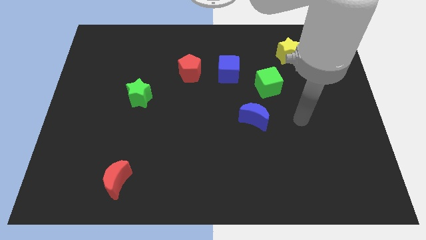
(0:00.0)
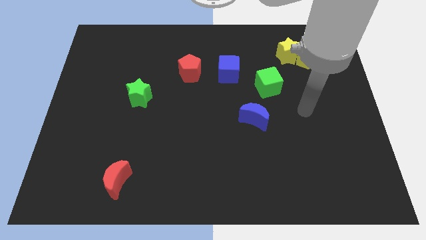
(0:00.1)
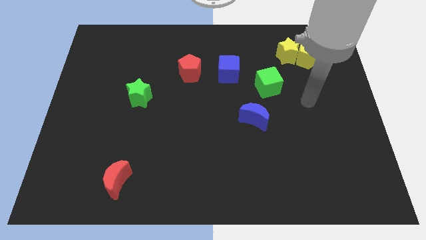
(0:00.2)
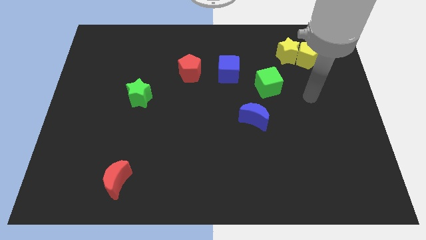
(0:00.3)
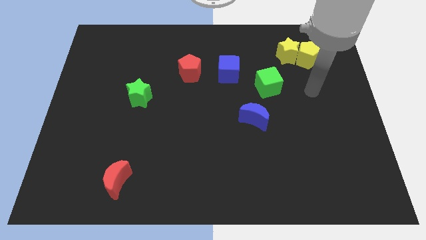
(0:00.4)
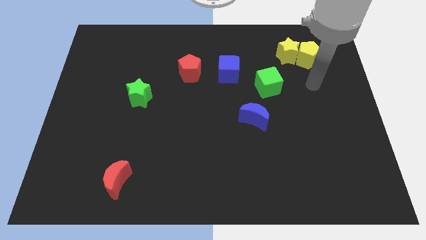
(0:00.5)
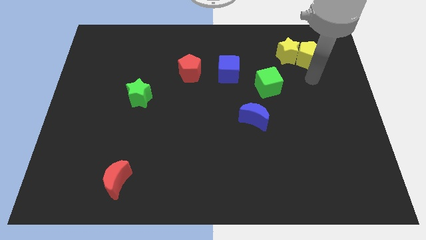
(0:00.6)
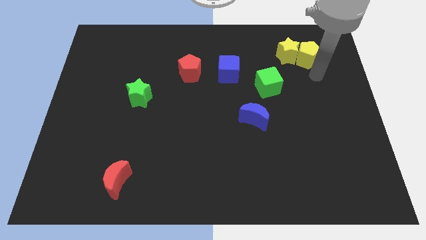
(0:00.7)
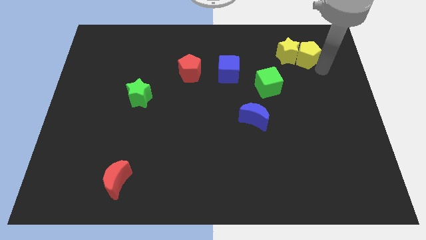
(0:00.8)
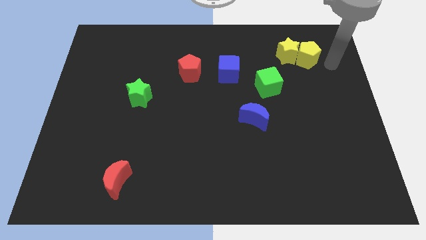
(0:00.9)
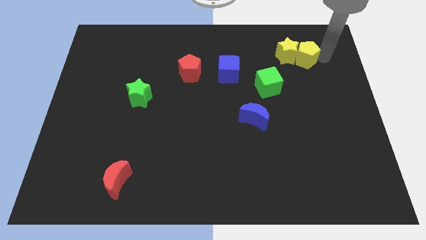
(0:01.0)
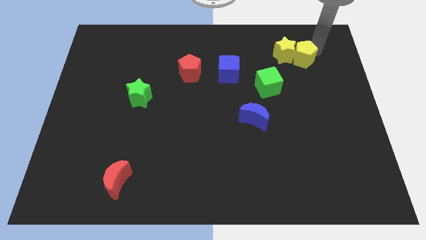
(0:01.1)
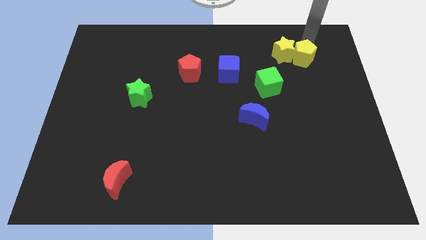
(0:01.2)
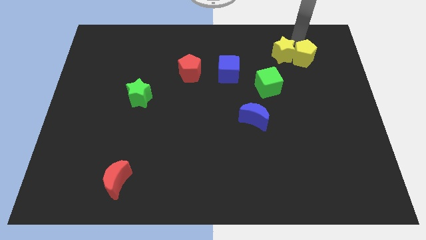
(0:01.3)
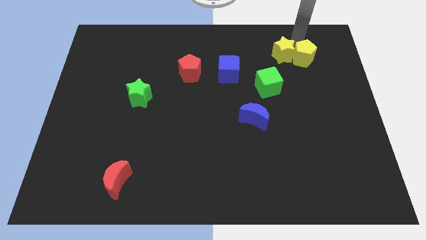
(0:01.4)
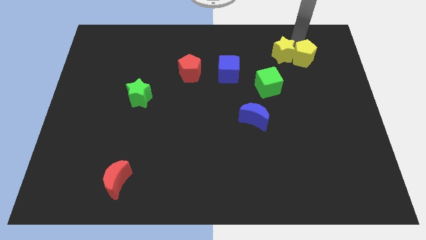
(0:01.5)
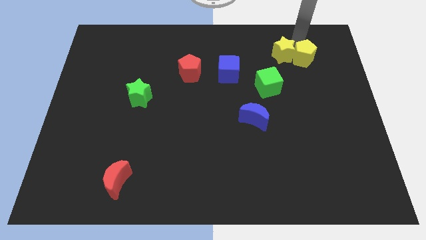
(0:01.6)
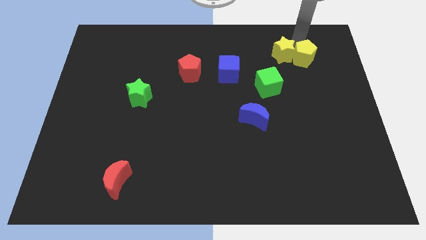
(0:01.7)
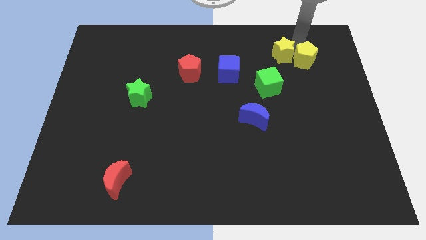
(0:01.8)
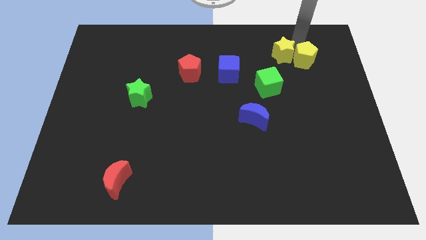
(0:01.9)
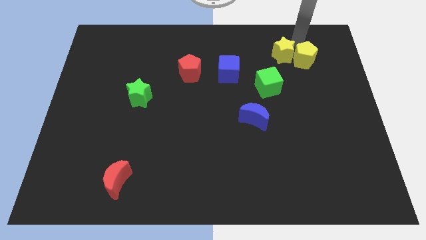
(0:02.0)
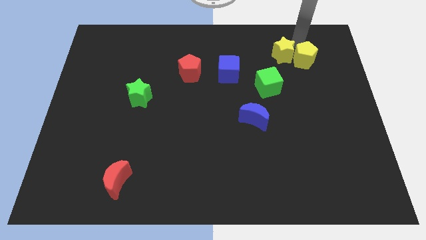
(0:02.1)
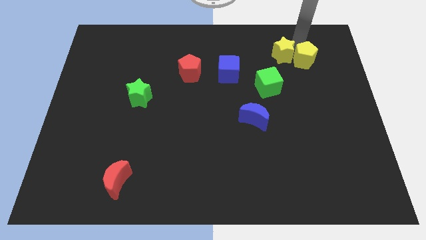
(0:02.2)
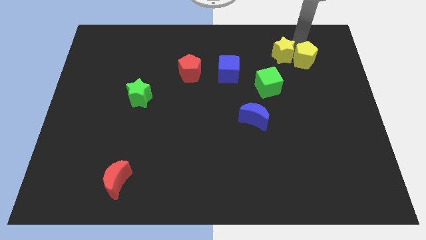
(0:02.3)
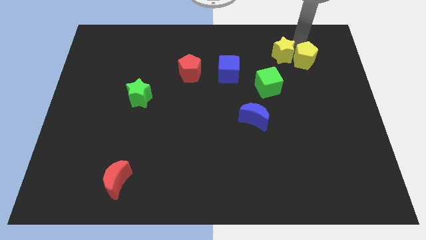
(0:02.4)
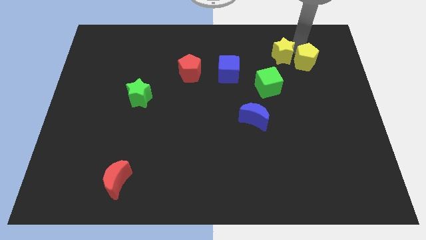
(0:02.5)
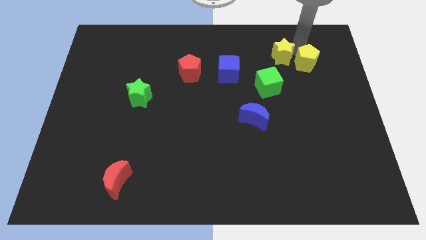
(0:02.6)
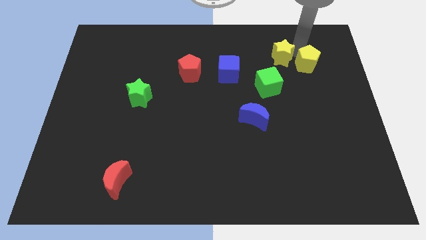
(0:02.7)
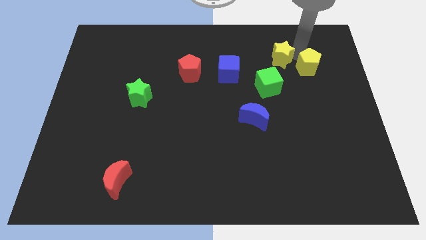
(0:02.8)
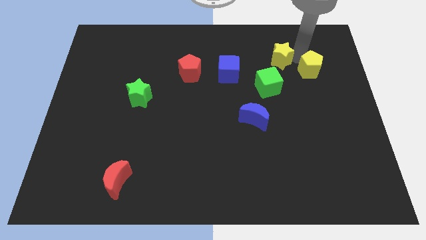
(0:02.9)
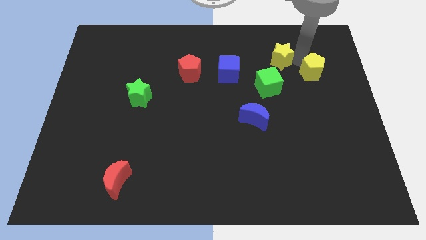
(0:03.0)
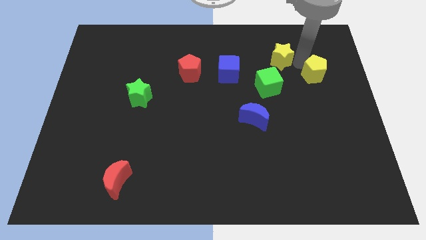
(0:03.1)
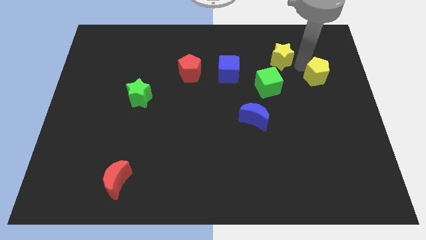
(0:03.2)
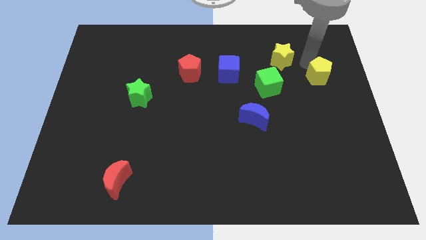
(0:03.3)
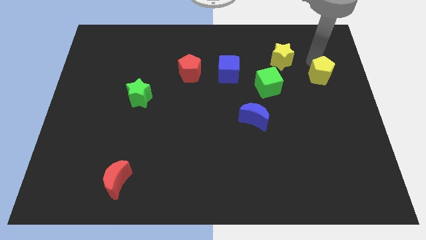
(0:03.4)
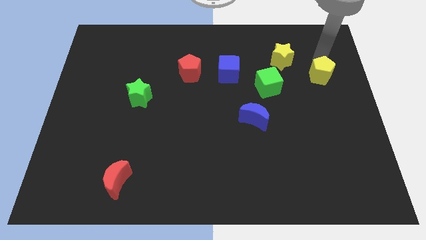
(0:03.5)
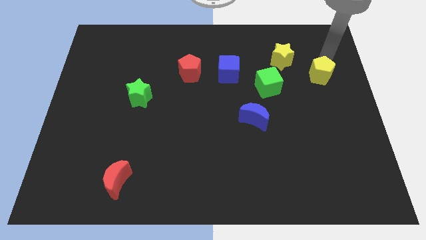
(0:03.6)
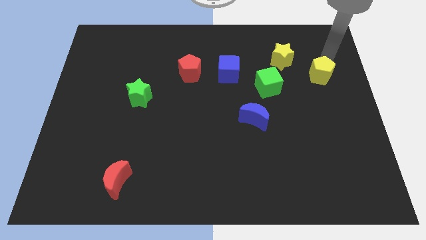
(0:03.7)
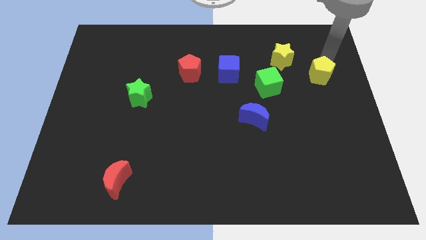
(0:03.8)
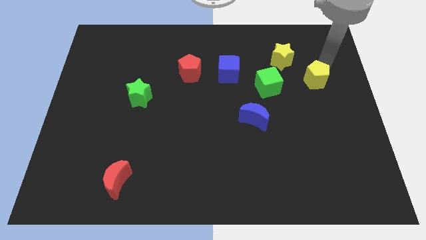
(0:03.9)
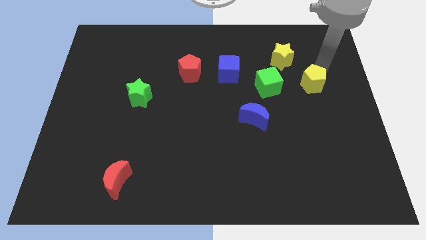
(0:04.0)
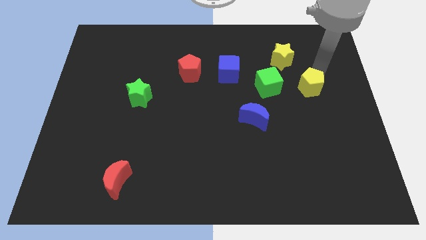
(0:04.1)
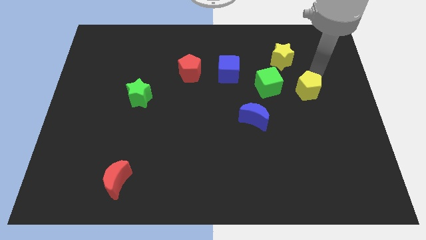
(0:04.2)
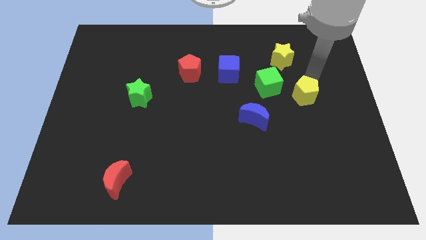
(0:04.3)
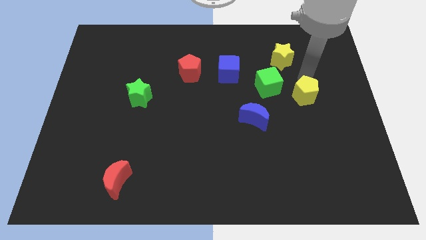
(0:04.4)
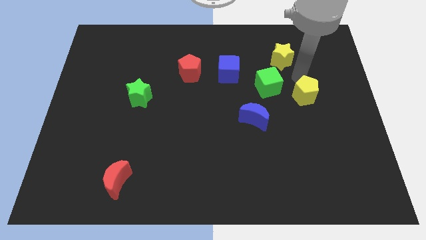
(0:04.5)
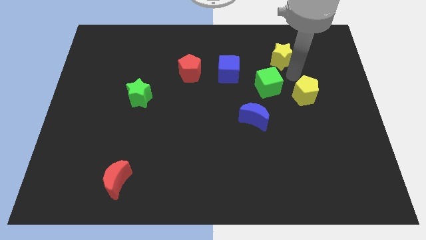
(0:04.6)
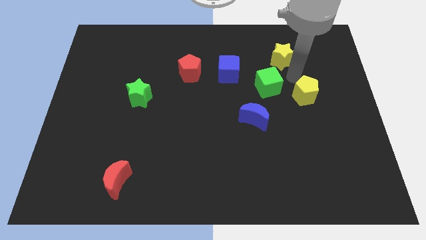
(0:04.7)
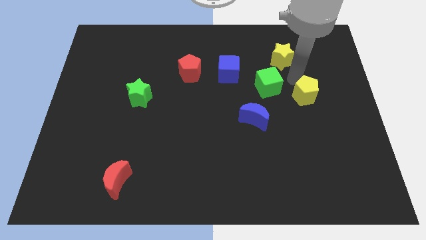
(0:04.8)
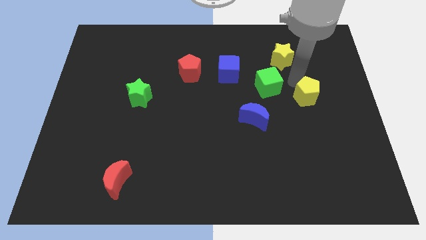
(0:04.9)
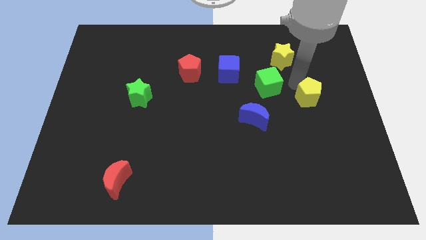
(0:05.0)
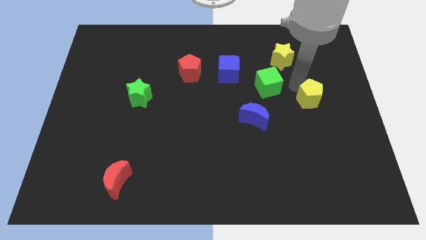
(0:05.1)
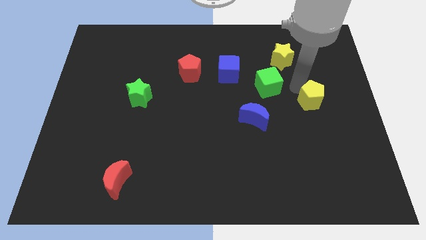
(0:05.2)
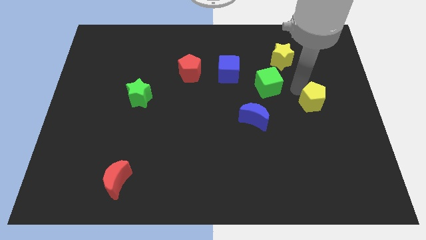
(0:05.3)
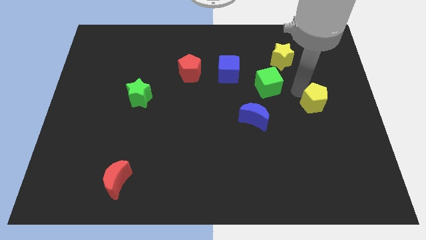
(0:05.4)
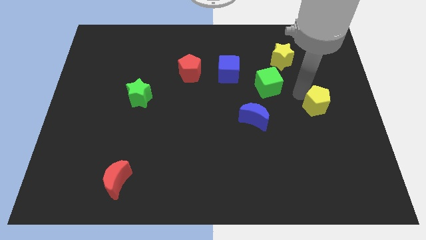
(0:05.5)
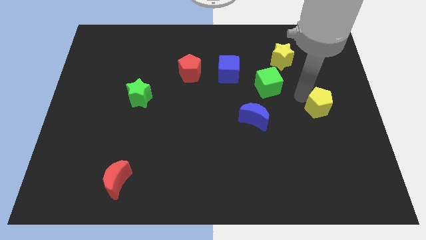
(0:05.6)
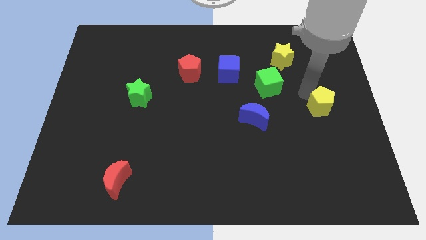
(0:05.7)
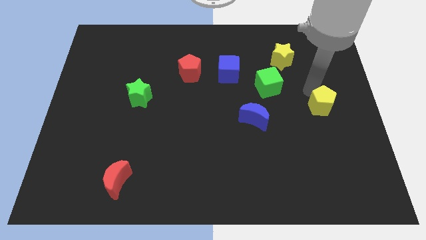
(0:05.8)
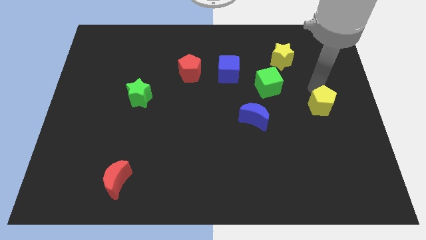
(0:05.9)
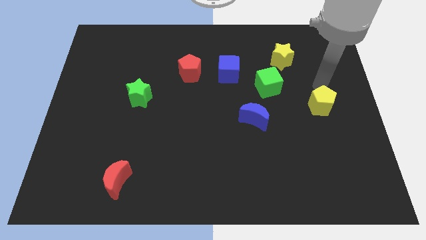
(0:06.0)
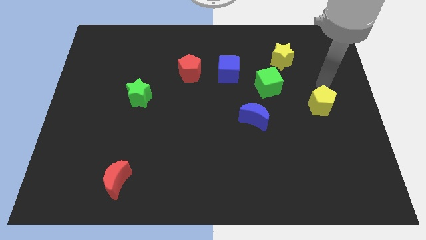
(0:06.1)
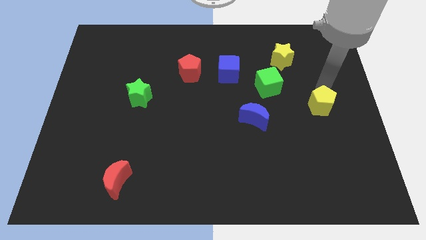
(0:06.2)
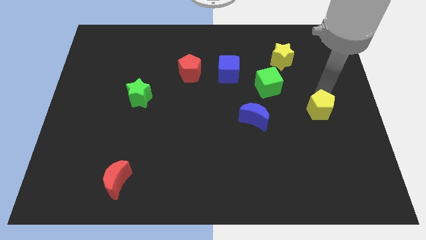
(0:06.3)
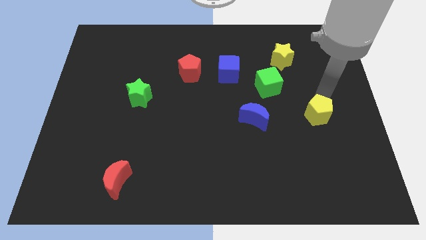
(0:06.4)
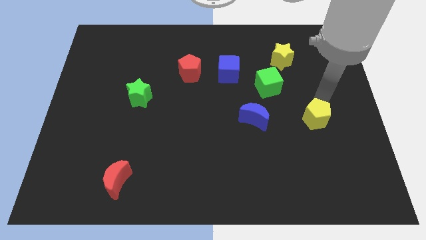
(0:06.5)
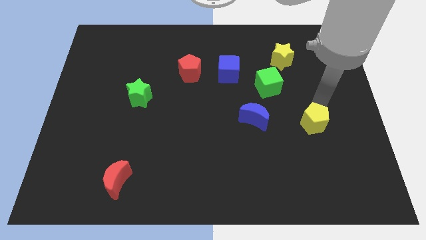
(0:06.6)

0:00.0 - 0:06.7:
slide the yellow pentagon down

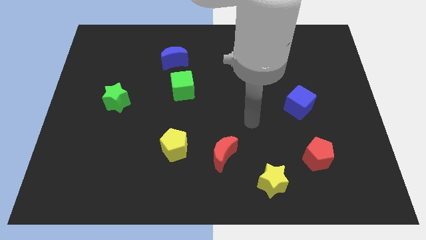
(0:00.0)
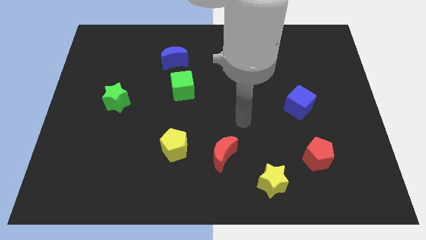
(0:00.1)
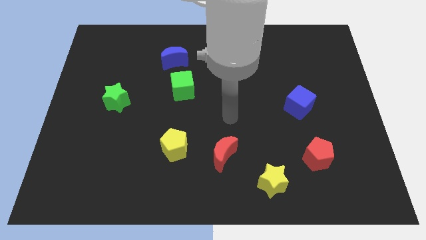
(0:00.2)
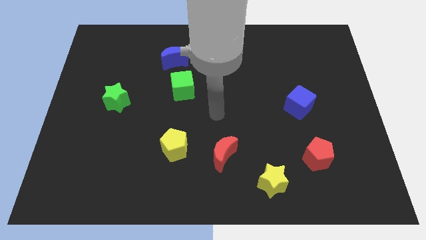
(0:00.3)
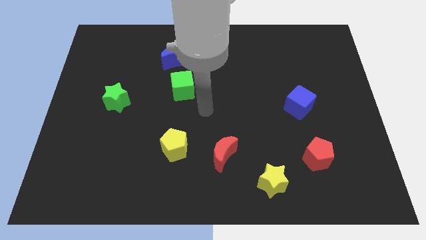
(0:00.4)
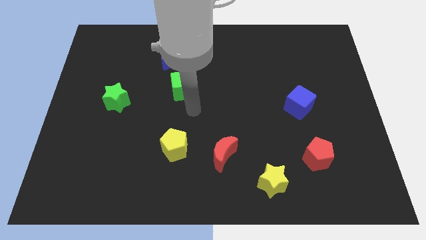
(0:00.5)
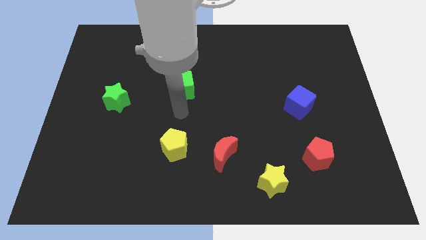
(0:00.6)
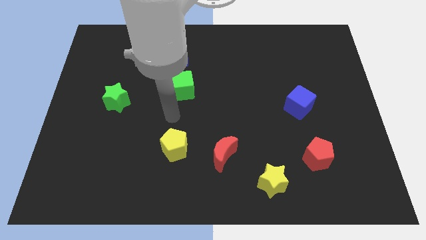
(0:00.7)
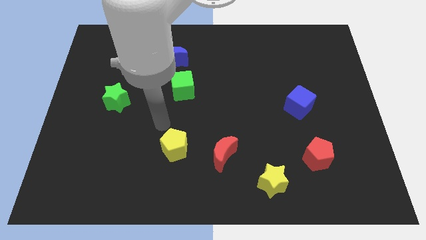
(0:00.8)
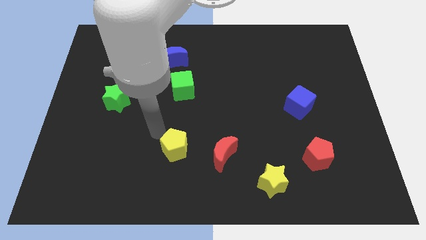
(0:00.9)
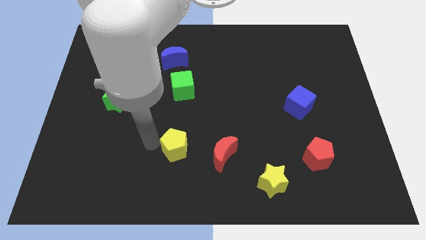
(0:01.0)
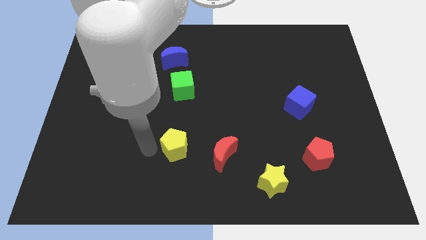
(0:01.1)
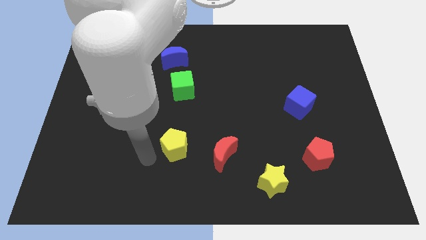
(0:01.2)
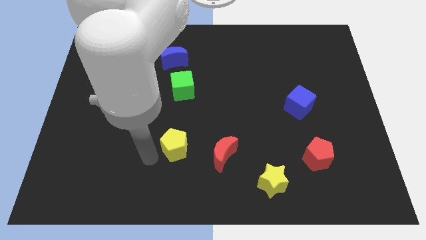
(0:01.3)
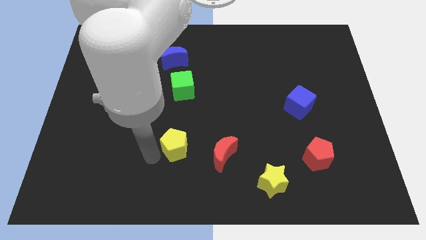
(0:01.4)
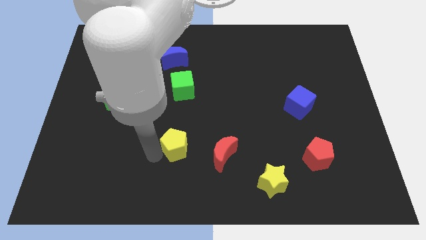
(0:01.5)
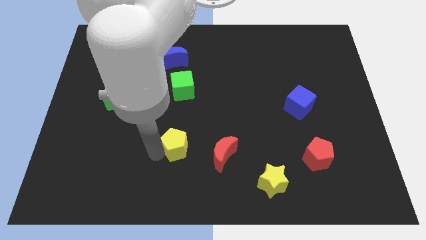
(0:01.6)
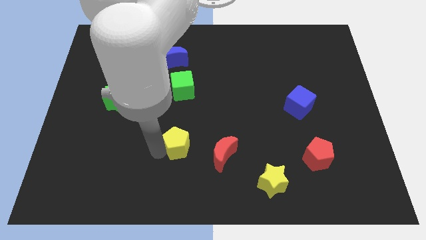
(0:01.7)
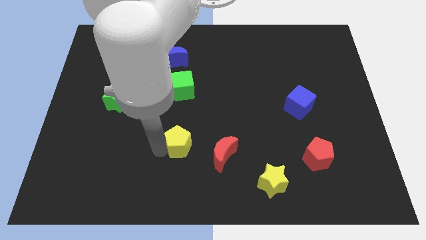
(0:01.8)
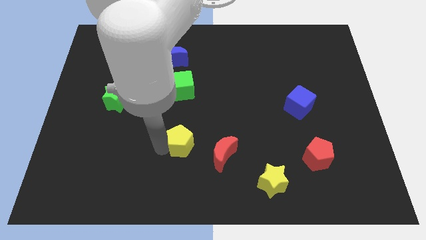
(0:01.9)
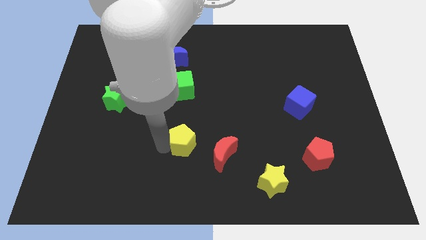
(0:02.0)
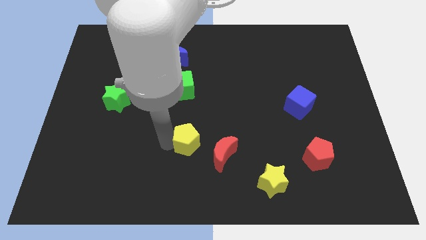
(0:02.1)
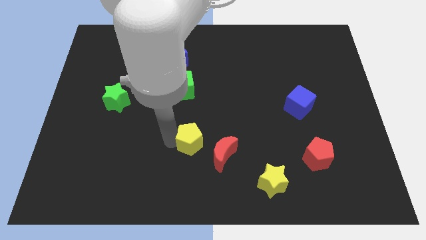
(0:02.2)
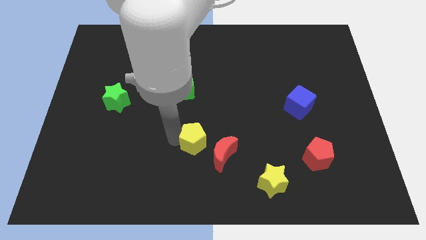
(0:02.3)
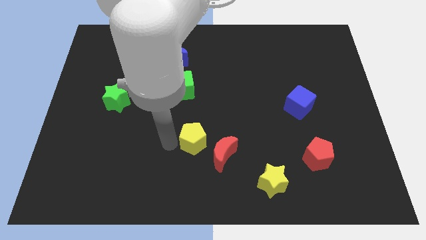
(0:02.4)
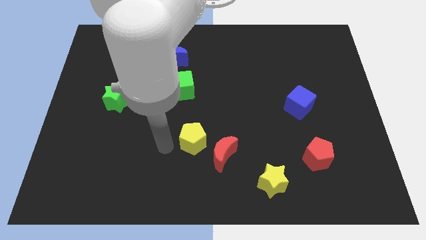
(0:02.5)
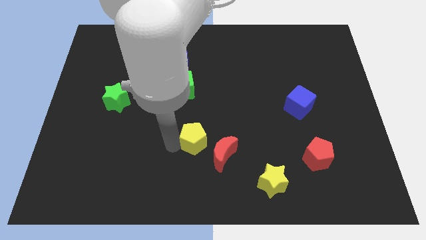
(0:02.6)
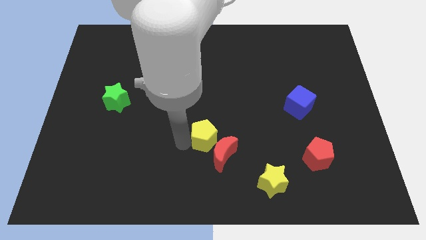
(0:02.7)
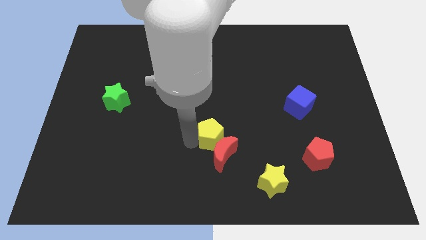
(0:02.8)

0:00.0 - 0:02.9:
slightly slide the yellow pentagon to the right
